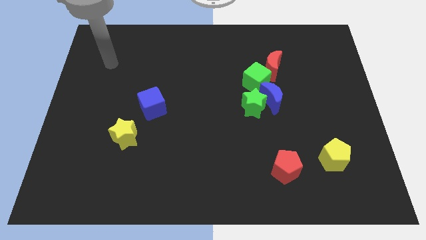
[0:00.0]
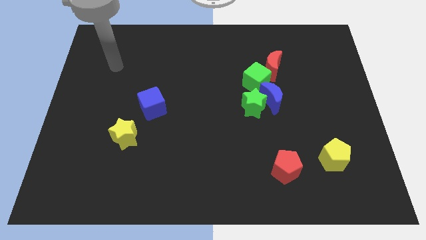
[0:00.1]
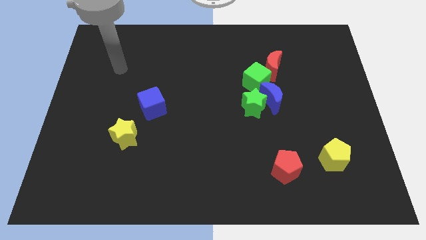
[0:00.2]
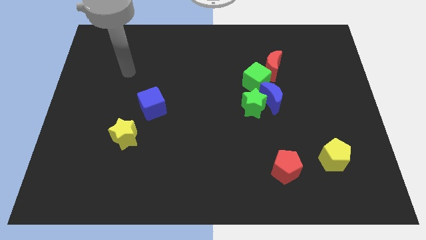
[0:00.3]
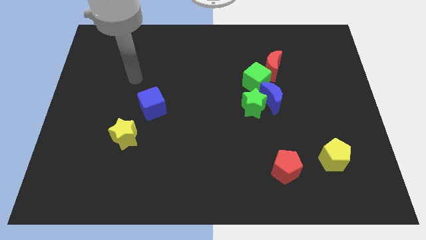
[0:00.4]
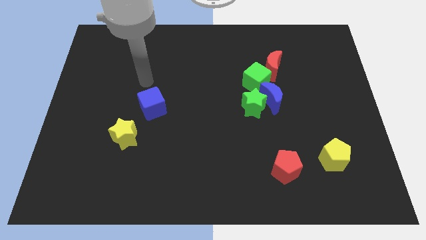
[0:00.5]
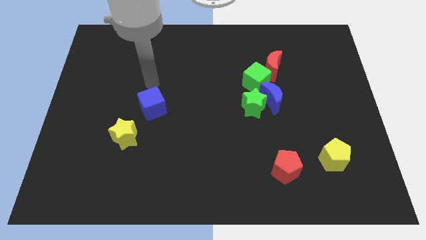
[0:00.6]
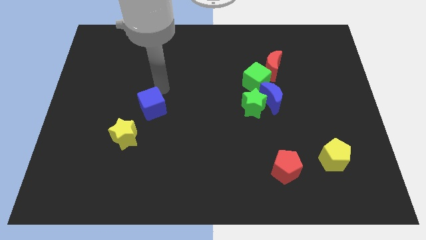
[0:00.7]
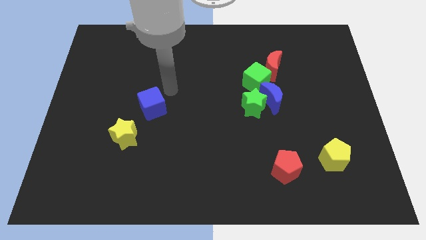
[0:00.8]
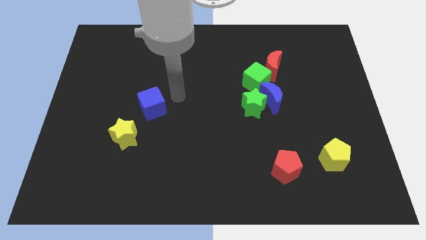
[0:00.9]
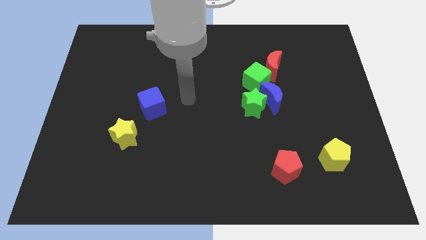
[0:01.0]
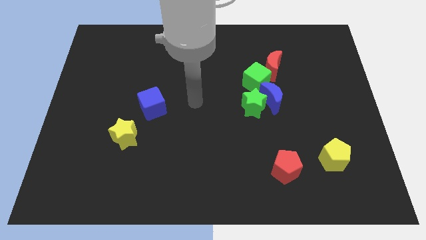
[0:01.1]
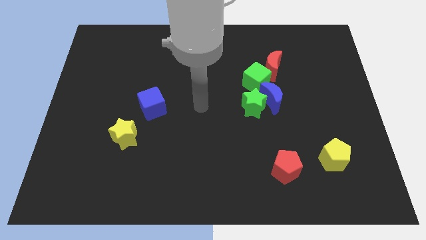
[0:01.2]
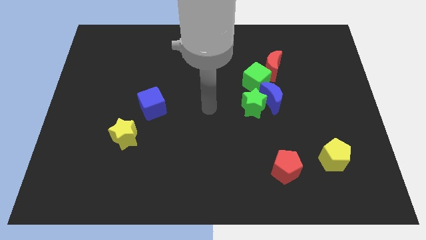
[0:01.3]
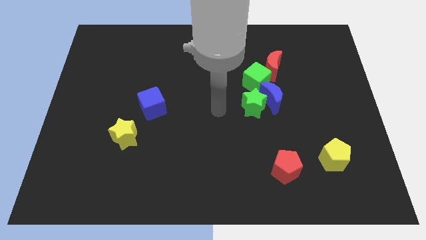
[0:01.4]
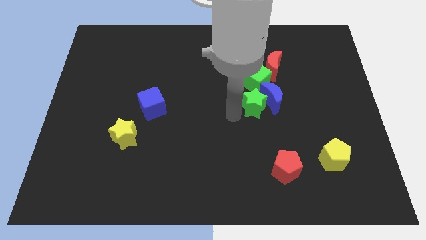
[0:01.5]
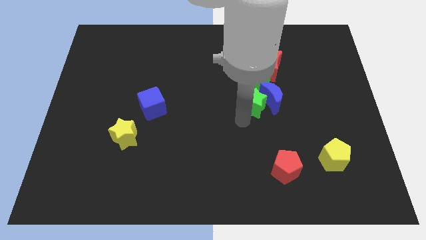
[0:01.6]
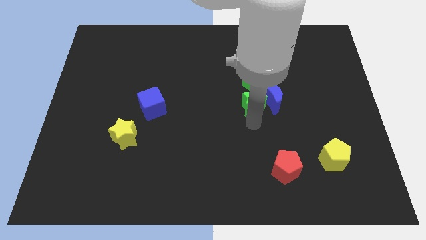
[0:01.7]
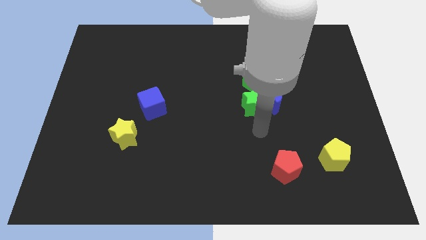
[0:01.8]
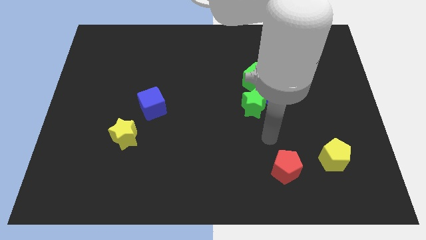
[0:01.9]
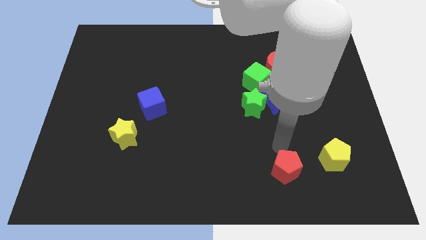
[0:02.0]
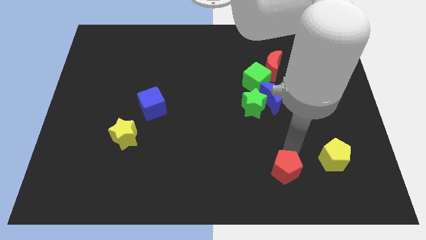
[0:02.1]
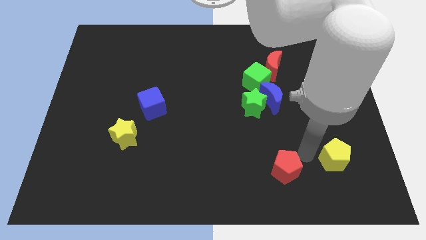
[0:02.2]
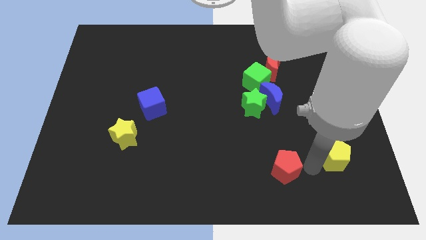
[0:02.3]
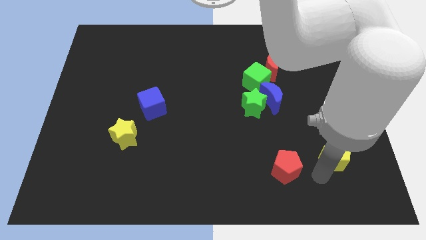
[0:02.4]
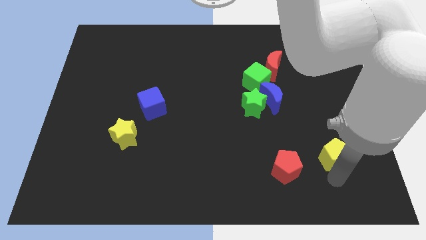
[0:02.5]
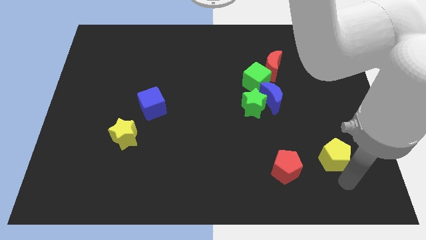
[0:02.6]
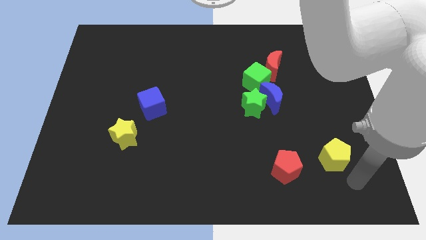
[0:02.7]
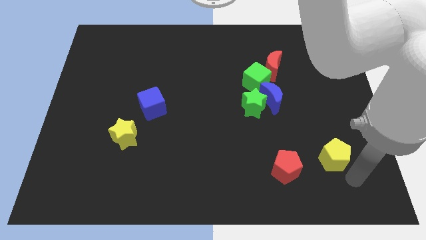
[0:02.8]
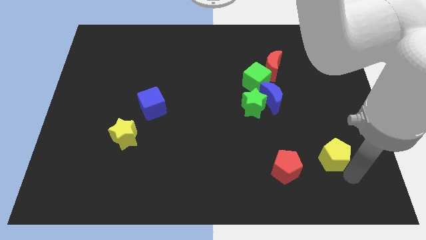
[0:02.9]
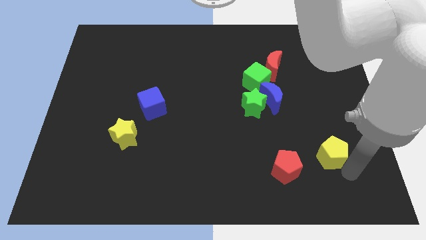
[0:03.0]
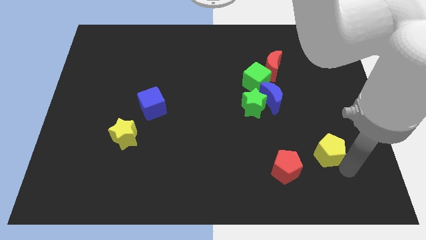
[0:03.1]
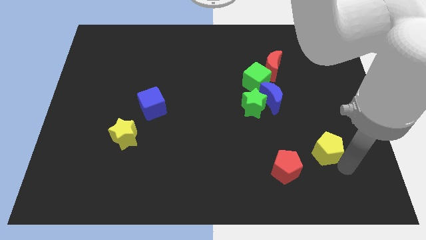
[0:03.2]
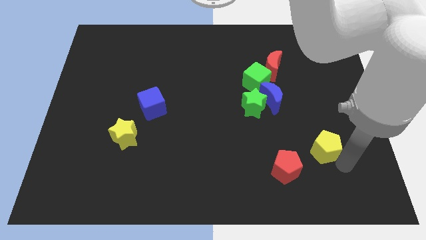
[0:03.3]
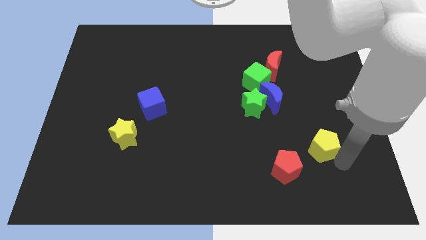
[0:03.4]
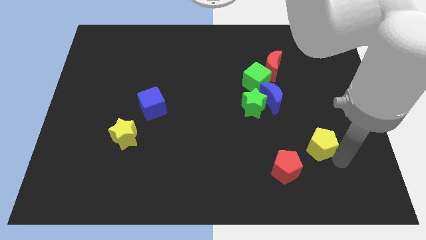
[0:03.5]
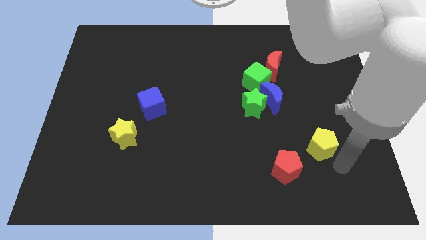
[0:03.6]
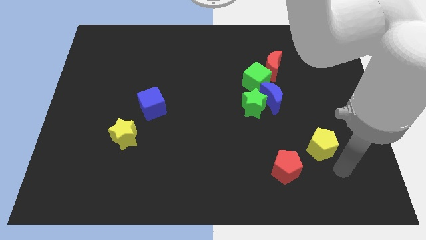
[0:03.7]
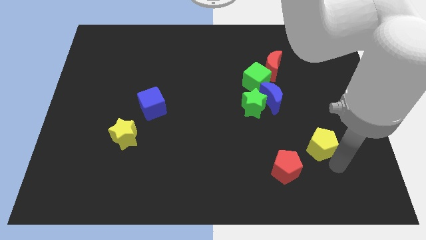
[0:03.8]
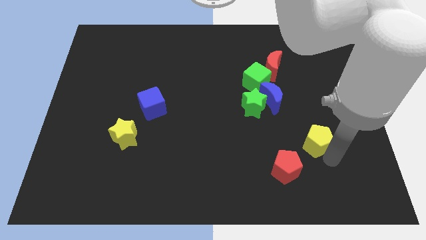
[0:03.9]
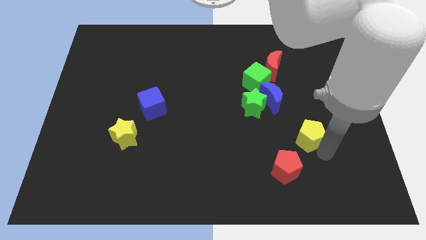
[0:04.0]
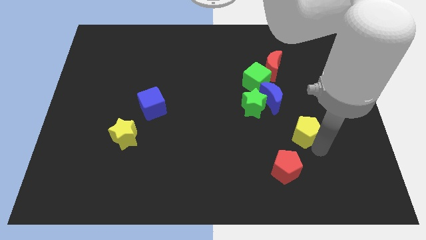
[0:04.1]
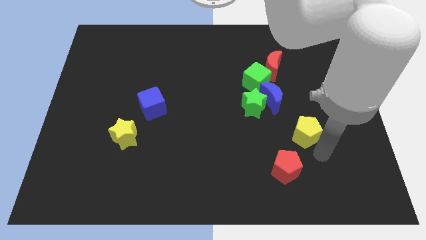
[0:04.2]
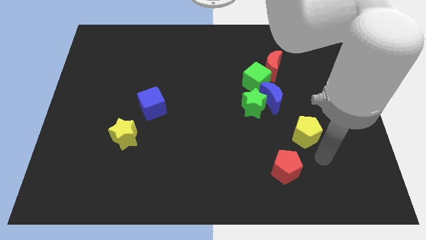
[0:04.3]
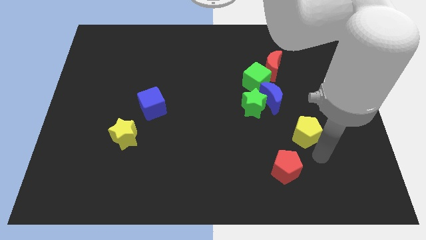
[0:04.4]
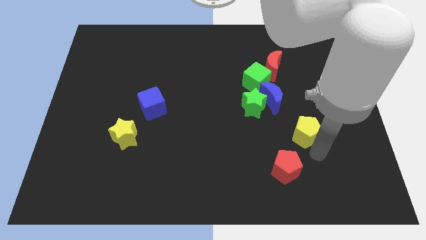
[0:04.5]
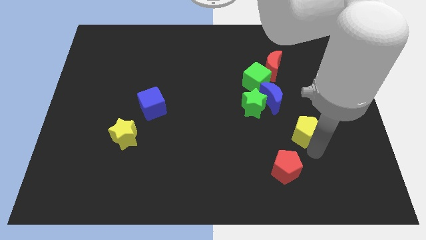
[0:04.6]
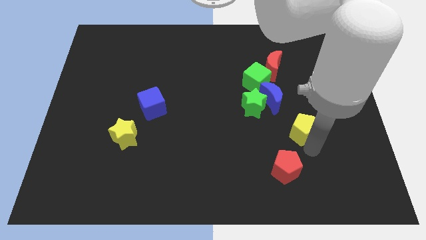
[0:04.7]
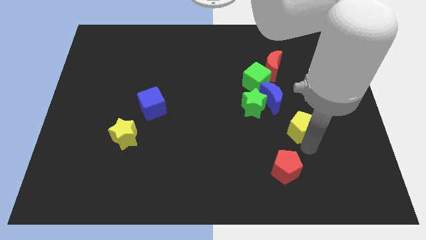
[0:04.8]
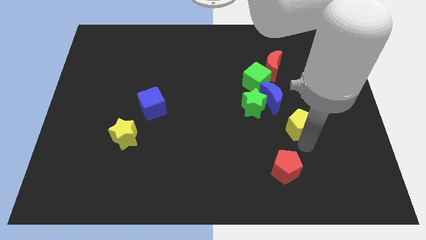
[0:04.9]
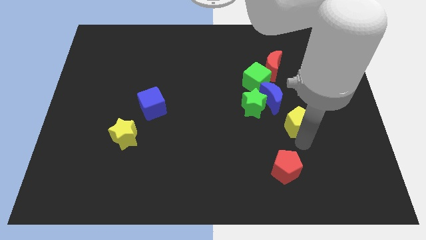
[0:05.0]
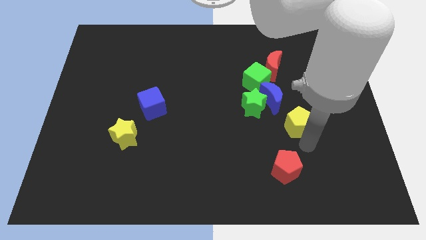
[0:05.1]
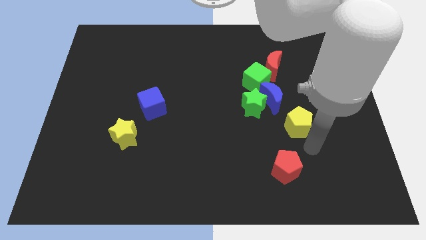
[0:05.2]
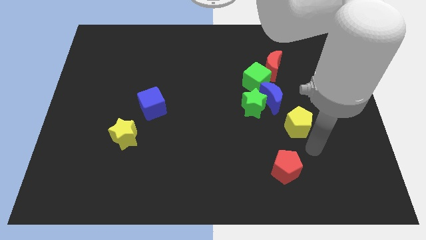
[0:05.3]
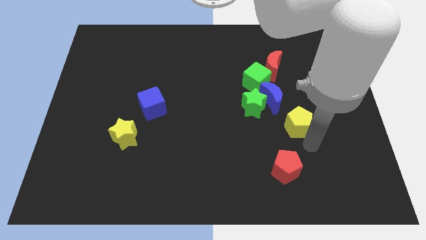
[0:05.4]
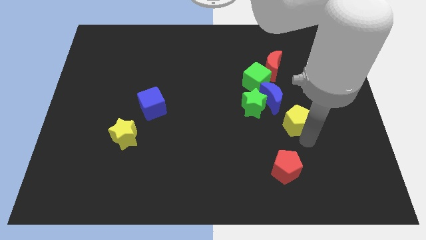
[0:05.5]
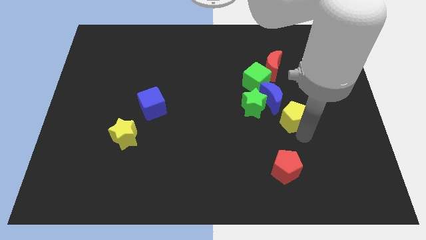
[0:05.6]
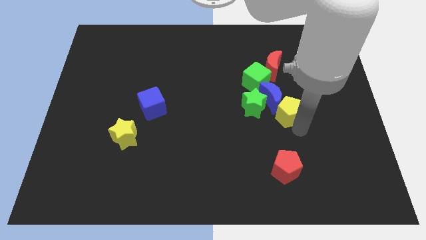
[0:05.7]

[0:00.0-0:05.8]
push the yellow pentagon to the blue moon
